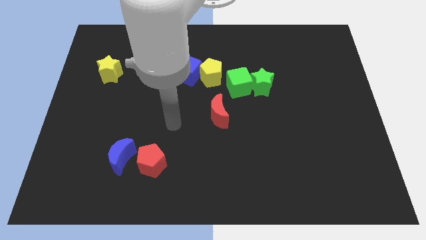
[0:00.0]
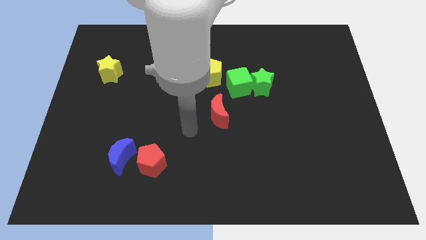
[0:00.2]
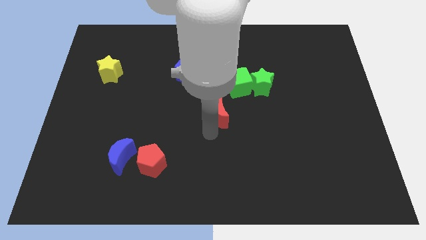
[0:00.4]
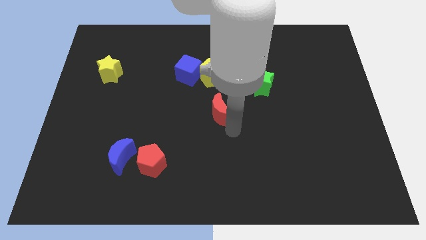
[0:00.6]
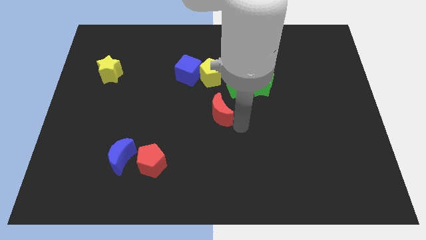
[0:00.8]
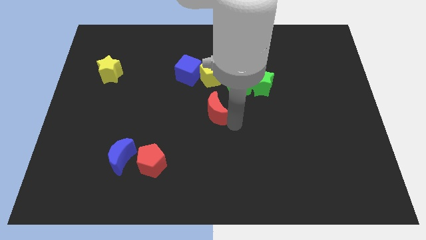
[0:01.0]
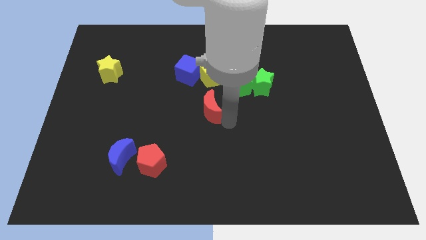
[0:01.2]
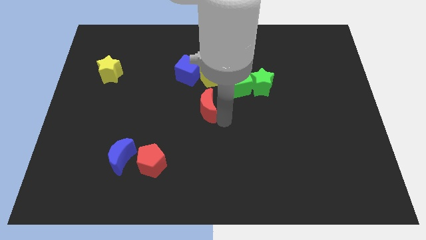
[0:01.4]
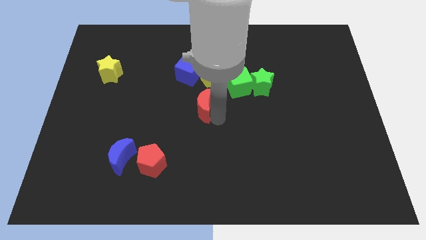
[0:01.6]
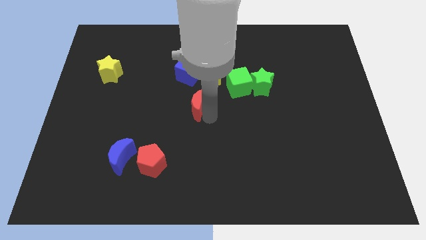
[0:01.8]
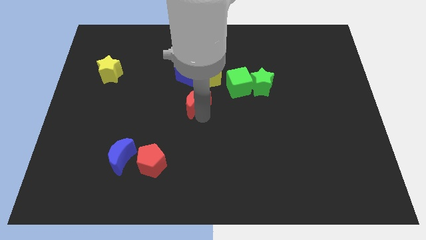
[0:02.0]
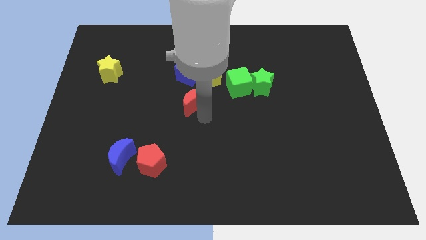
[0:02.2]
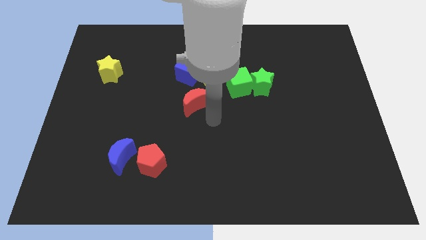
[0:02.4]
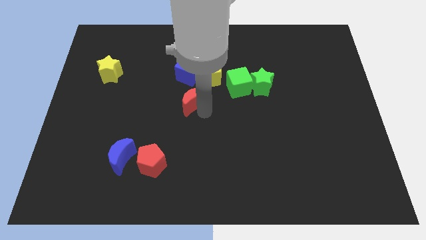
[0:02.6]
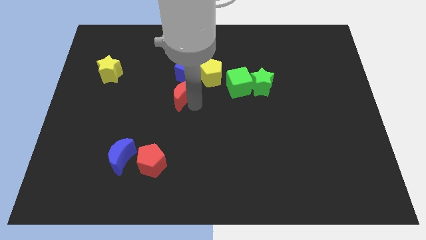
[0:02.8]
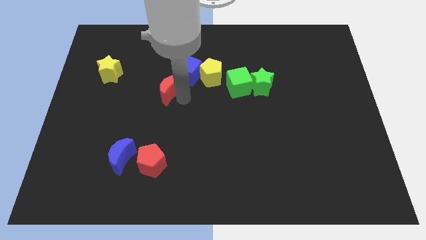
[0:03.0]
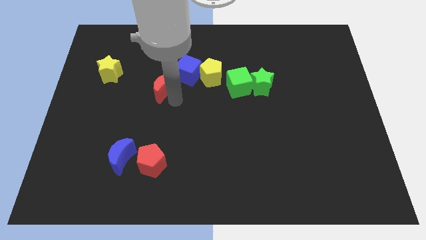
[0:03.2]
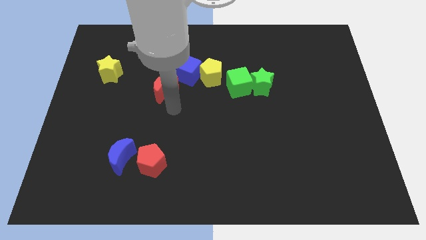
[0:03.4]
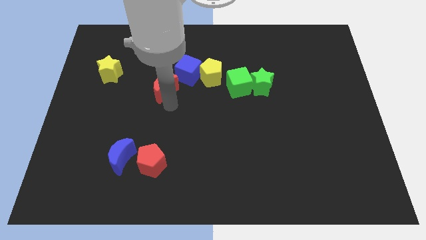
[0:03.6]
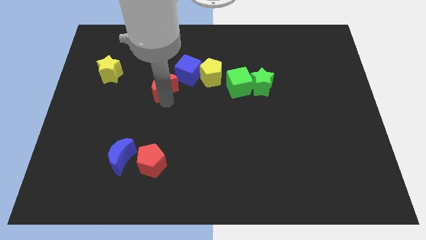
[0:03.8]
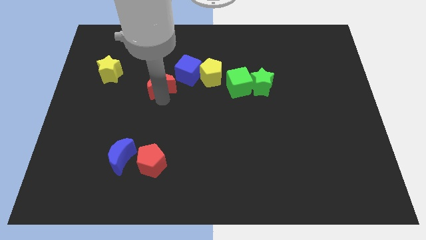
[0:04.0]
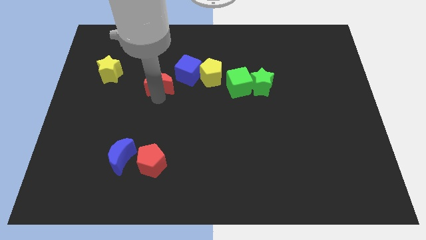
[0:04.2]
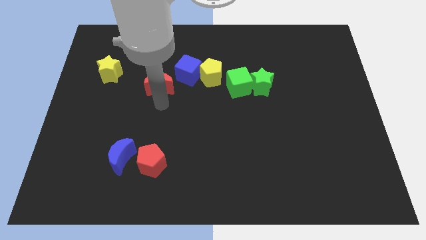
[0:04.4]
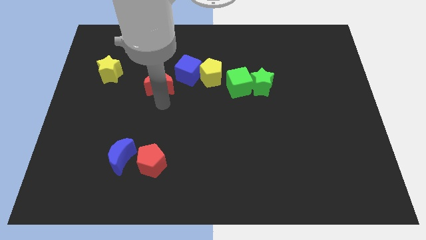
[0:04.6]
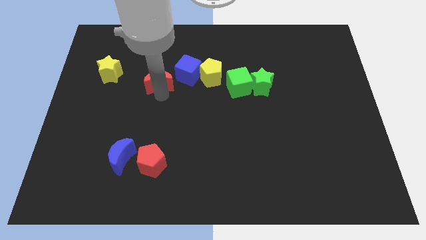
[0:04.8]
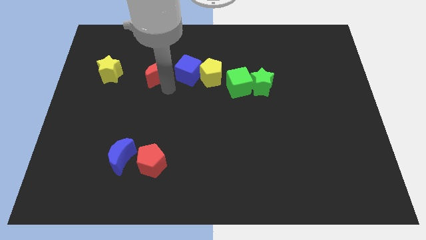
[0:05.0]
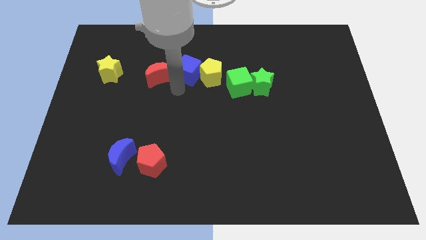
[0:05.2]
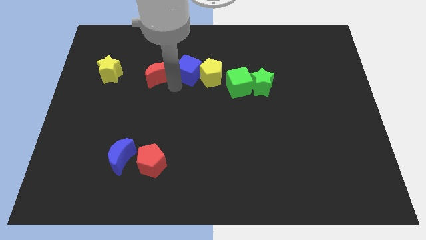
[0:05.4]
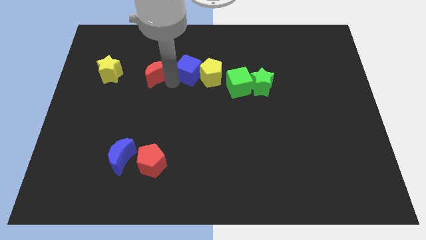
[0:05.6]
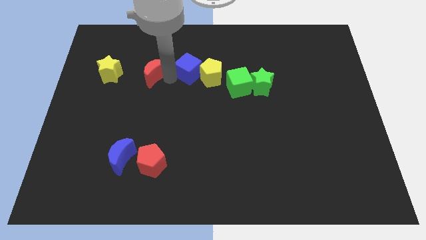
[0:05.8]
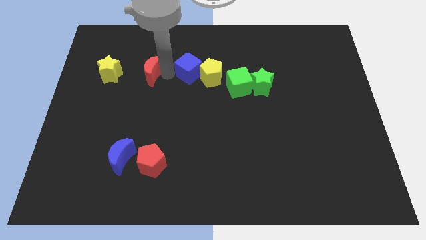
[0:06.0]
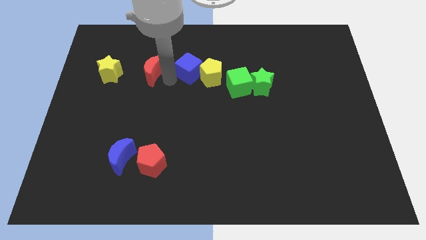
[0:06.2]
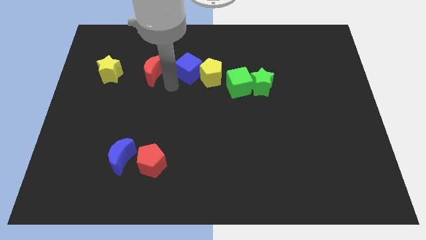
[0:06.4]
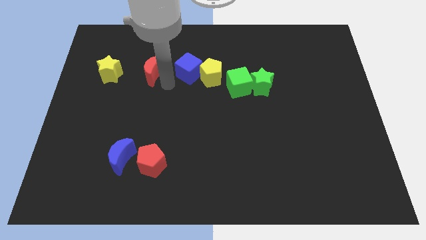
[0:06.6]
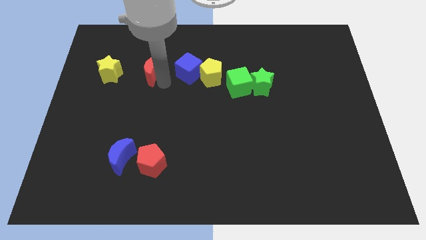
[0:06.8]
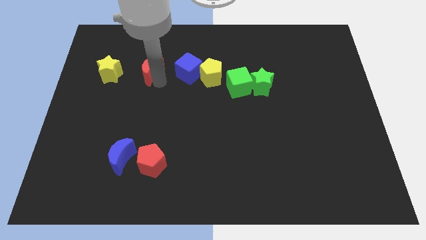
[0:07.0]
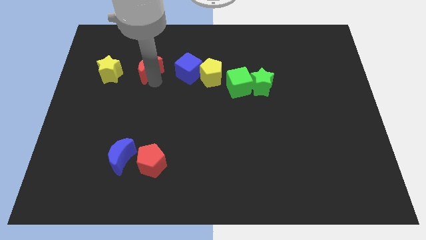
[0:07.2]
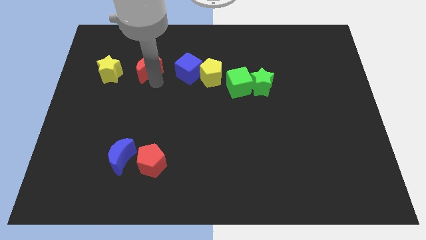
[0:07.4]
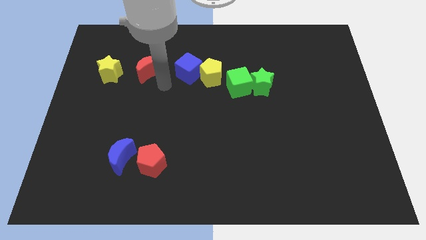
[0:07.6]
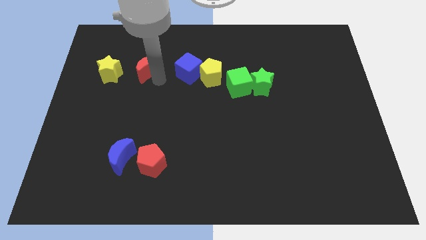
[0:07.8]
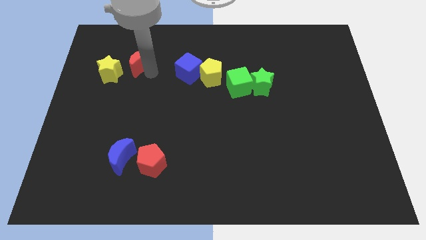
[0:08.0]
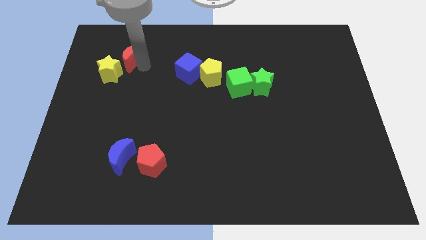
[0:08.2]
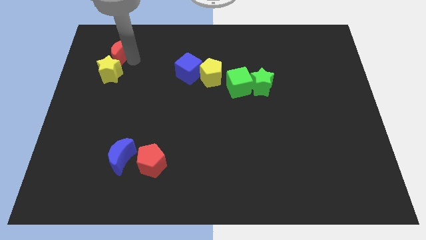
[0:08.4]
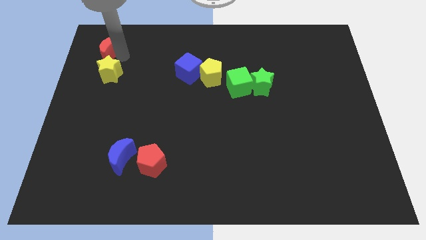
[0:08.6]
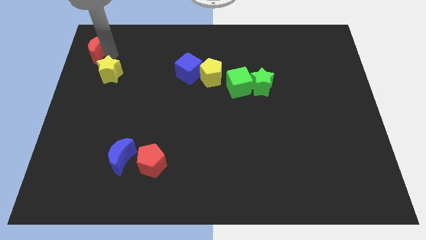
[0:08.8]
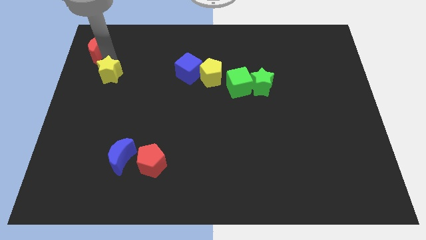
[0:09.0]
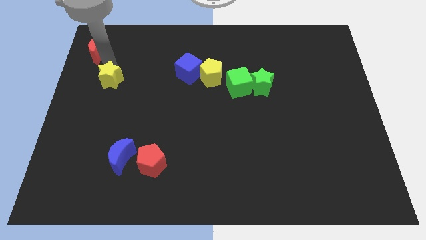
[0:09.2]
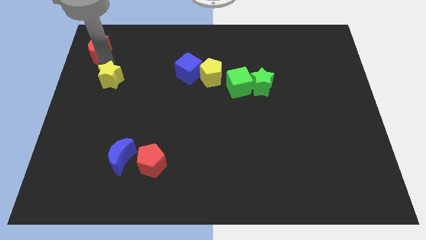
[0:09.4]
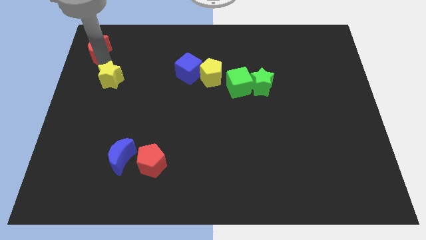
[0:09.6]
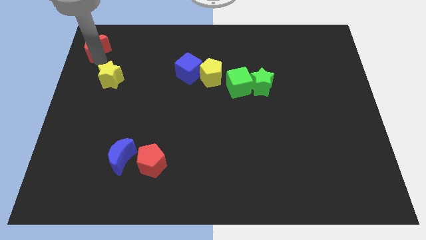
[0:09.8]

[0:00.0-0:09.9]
put the red moon to the top left

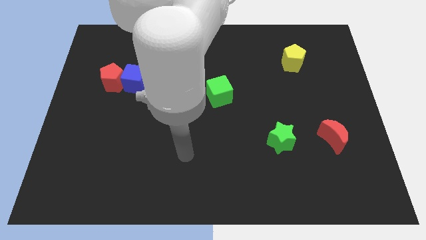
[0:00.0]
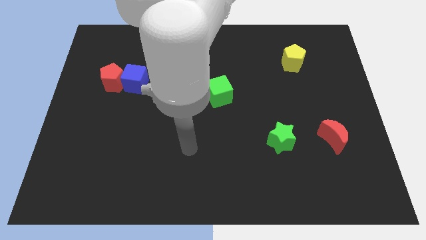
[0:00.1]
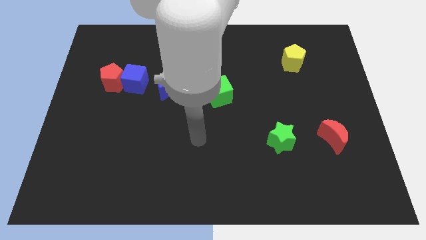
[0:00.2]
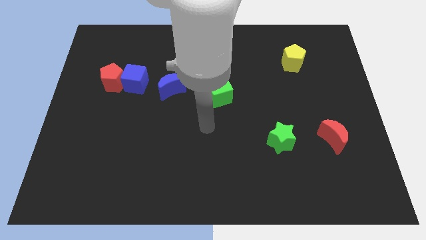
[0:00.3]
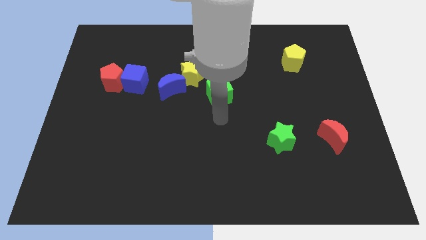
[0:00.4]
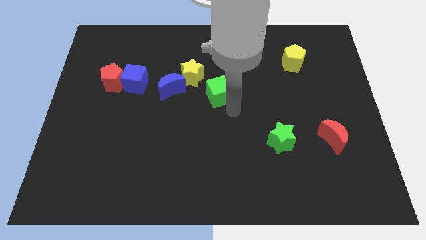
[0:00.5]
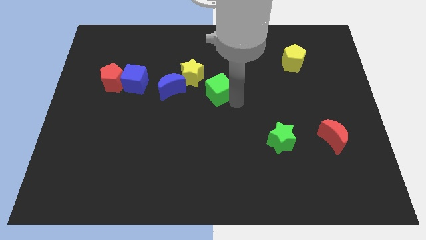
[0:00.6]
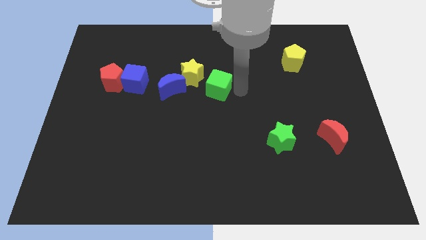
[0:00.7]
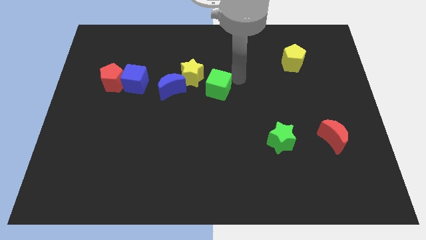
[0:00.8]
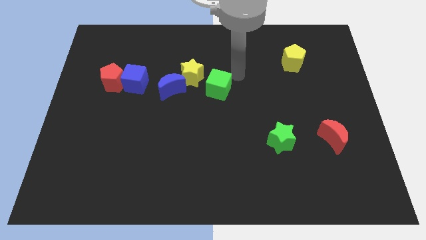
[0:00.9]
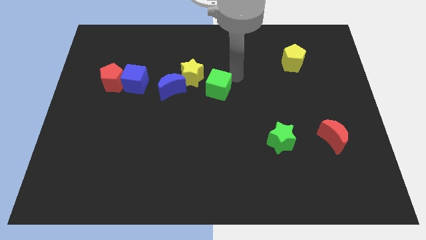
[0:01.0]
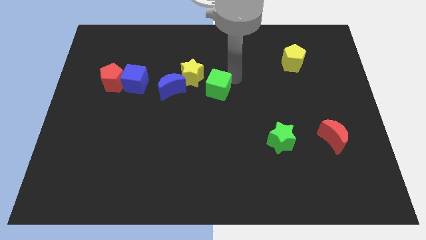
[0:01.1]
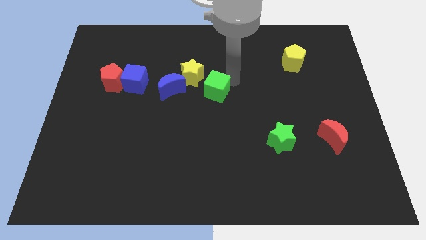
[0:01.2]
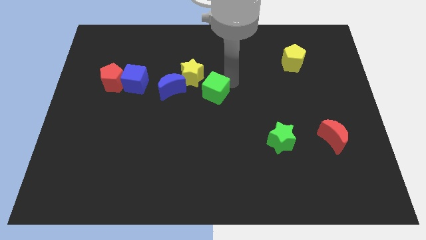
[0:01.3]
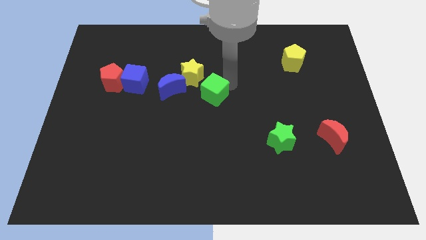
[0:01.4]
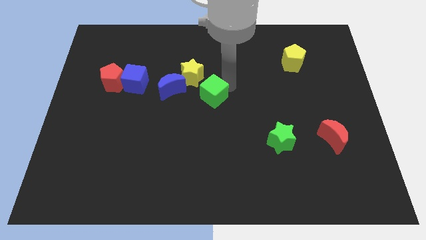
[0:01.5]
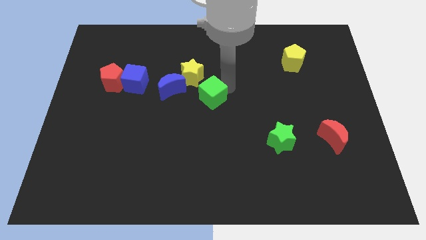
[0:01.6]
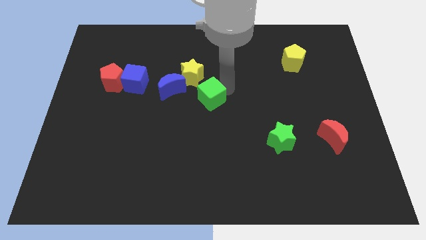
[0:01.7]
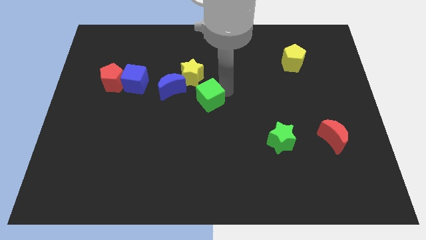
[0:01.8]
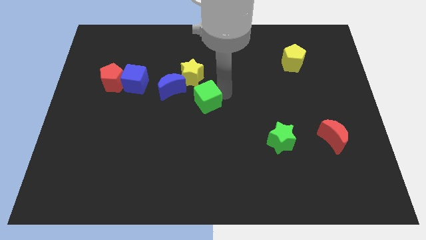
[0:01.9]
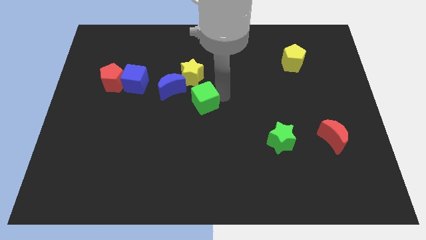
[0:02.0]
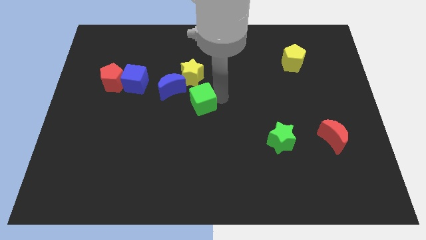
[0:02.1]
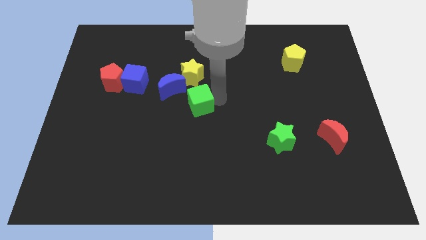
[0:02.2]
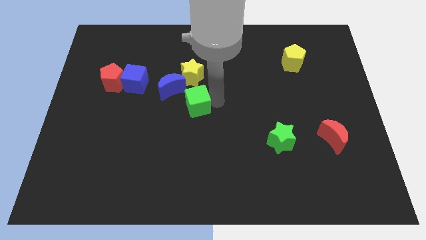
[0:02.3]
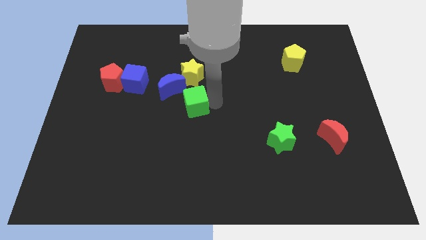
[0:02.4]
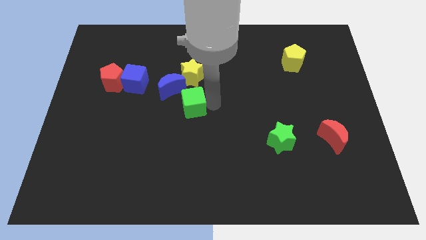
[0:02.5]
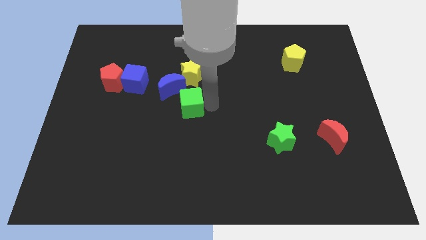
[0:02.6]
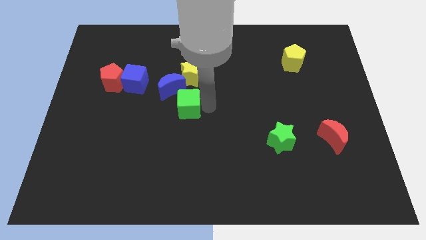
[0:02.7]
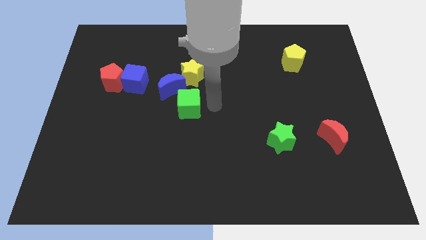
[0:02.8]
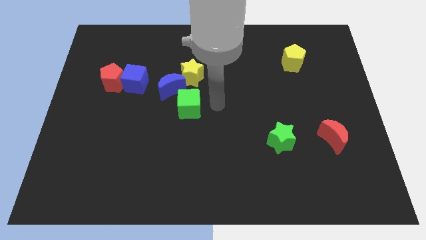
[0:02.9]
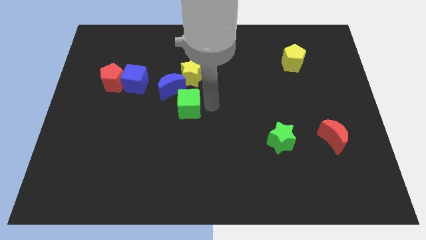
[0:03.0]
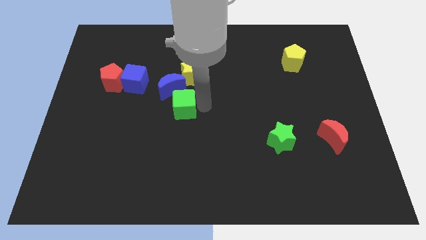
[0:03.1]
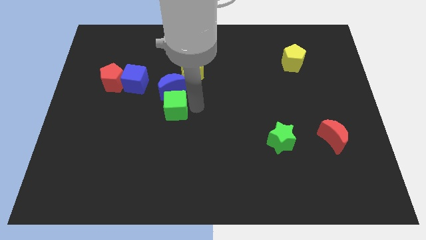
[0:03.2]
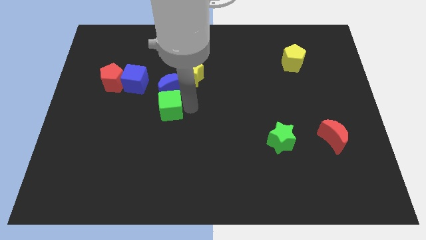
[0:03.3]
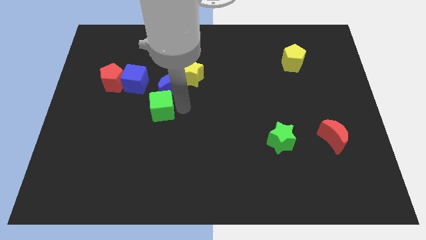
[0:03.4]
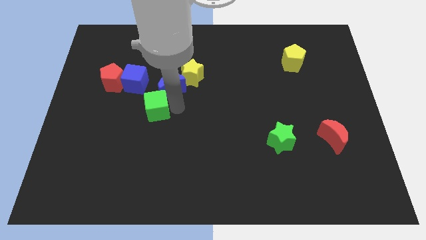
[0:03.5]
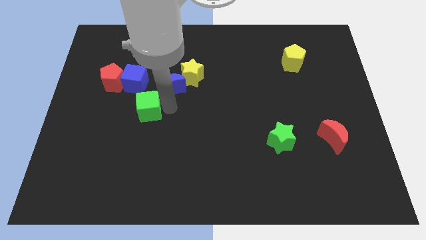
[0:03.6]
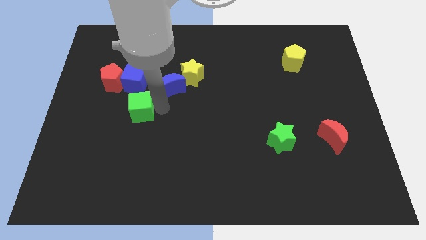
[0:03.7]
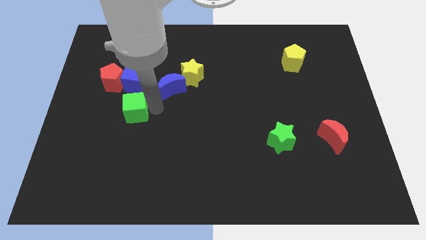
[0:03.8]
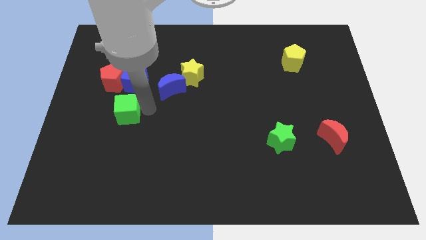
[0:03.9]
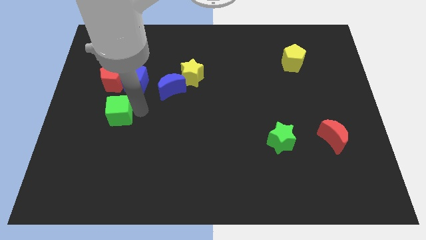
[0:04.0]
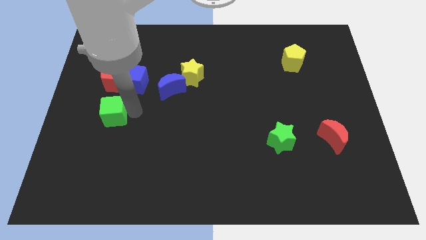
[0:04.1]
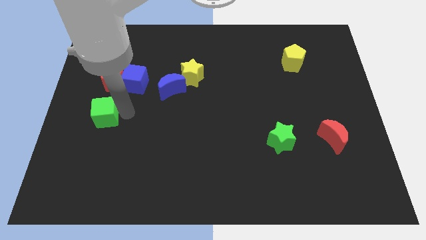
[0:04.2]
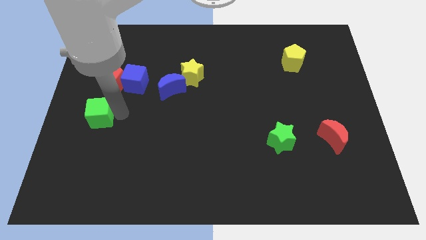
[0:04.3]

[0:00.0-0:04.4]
move the green cube to the left side of the board
